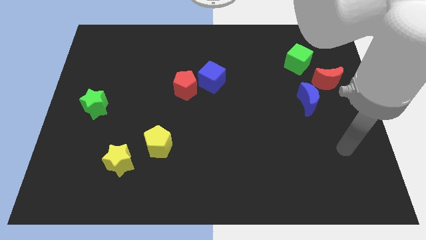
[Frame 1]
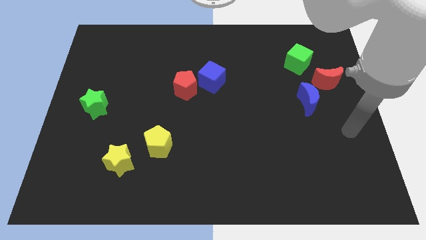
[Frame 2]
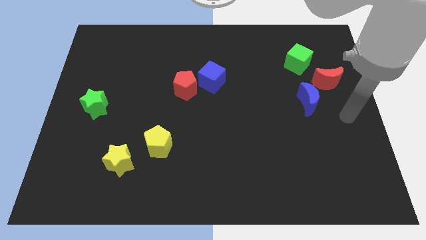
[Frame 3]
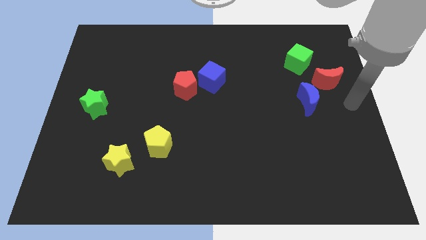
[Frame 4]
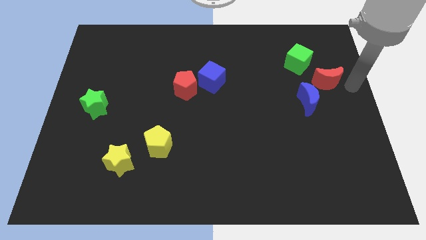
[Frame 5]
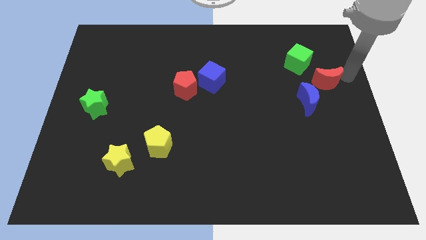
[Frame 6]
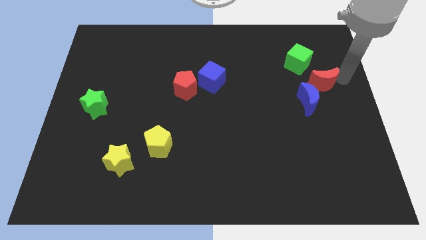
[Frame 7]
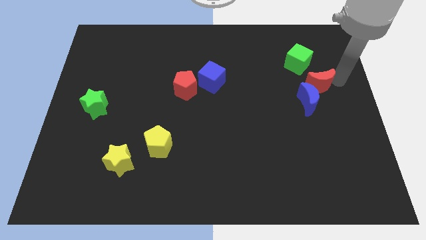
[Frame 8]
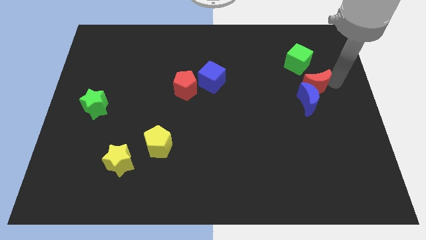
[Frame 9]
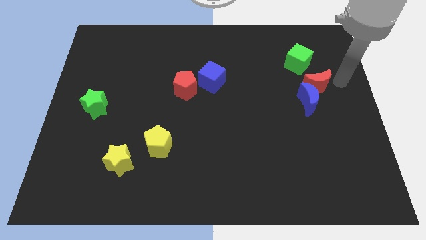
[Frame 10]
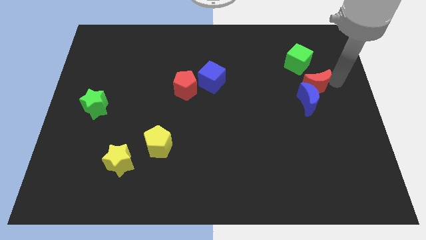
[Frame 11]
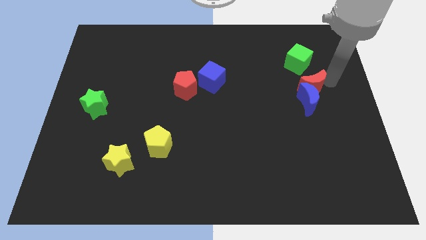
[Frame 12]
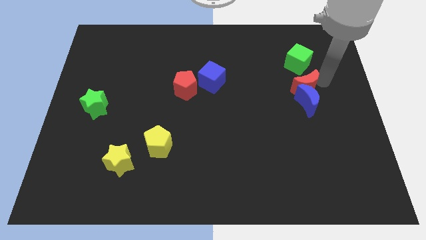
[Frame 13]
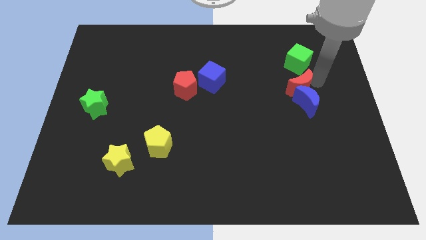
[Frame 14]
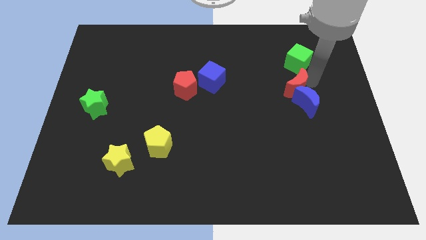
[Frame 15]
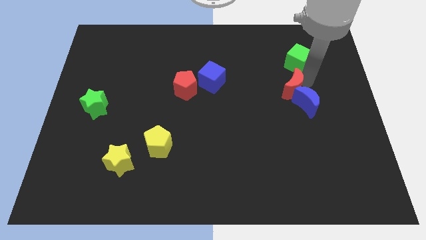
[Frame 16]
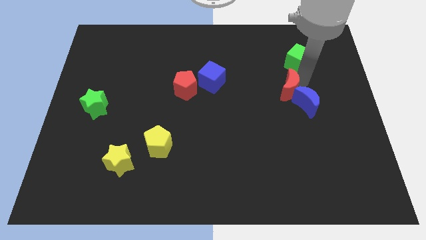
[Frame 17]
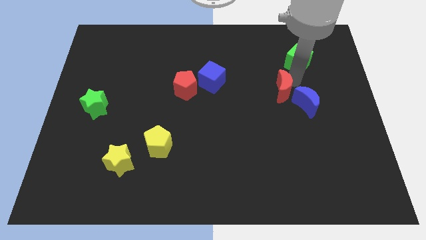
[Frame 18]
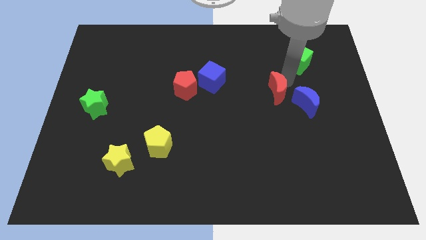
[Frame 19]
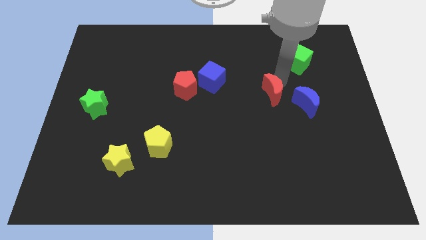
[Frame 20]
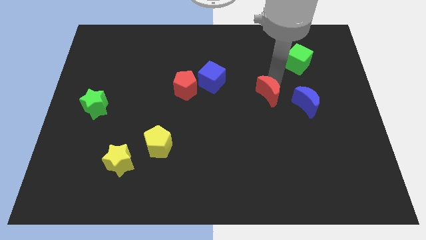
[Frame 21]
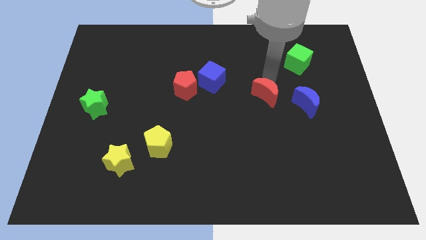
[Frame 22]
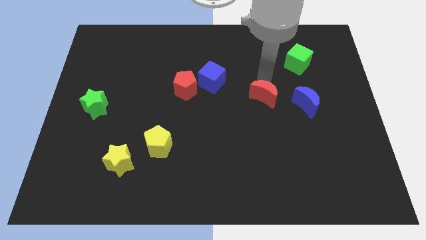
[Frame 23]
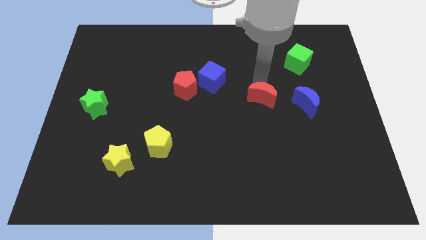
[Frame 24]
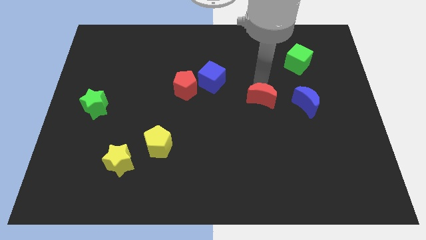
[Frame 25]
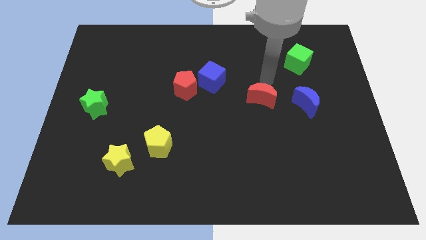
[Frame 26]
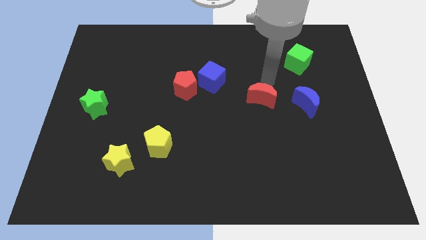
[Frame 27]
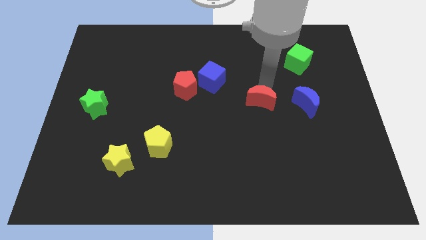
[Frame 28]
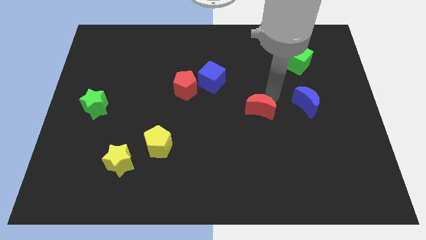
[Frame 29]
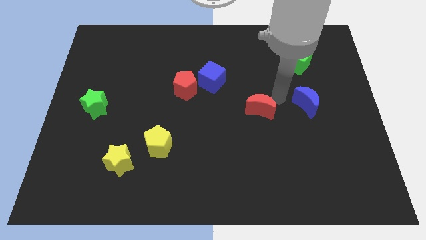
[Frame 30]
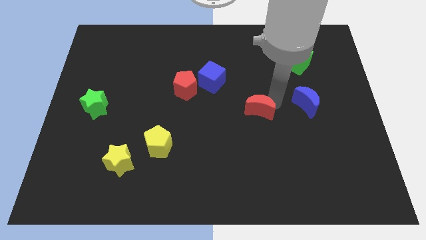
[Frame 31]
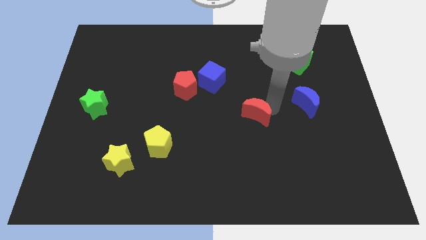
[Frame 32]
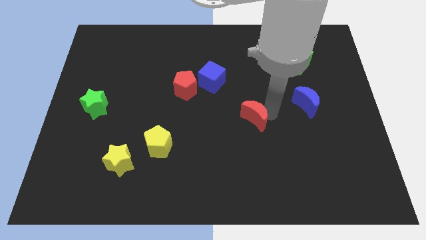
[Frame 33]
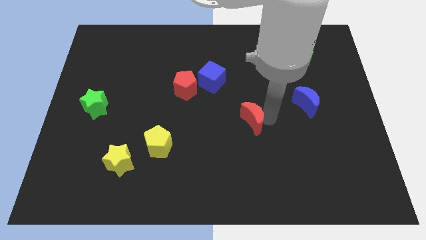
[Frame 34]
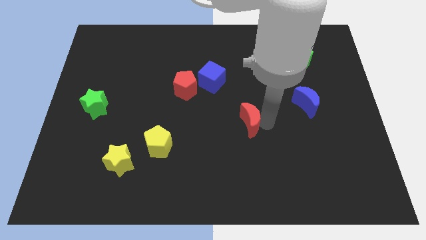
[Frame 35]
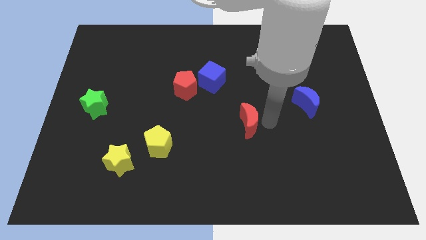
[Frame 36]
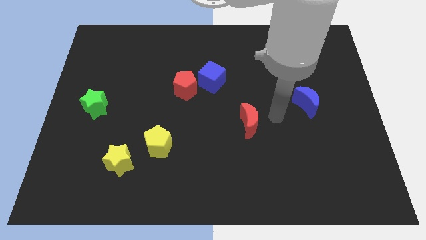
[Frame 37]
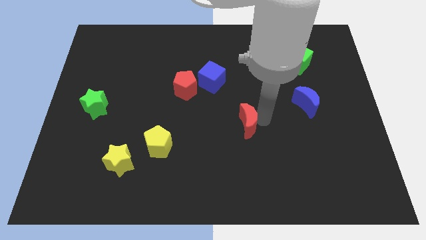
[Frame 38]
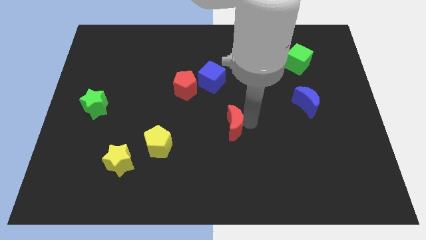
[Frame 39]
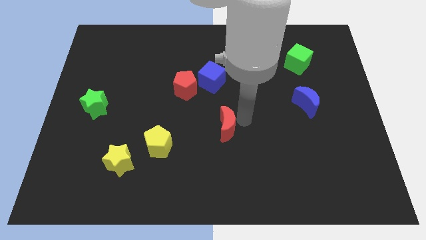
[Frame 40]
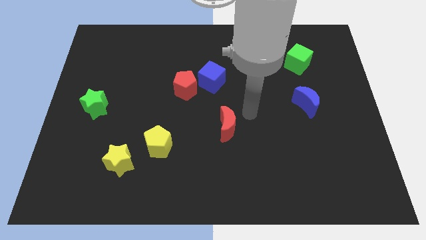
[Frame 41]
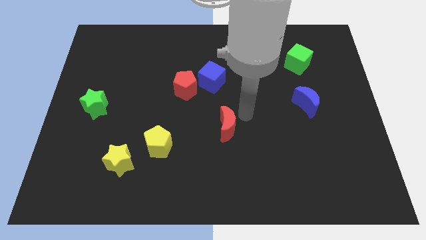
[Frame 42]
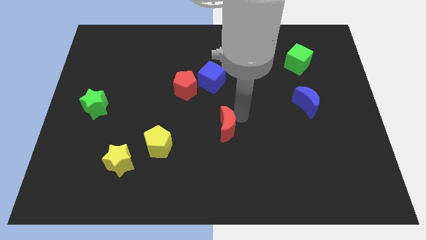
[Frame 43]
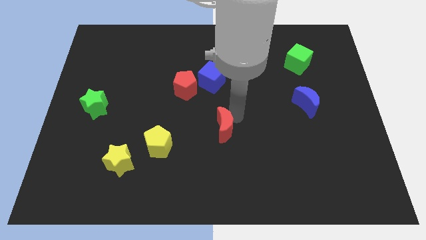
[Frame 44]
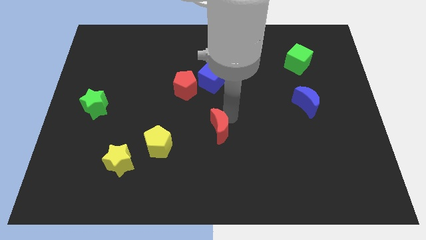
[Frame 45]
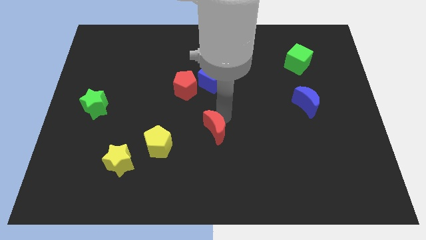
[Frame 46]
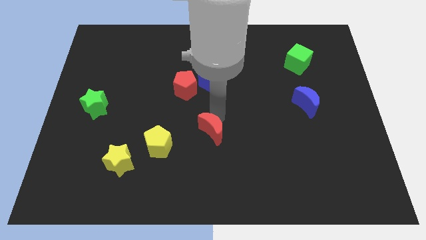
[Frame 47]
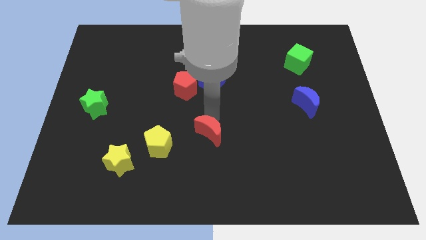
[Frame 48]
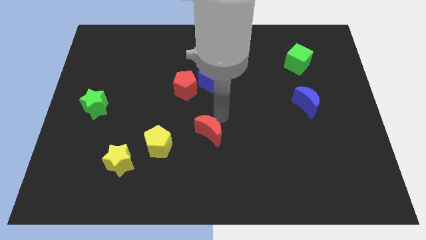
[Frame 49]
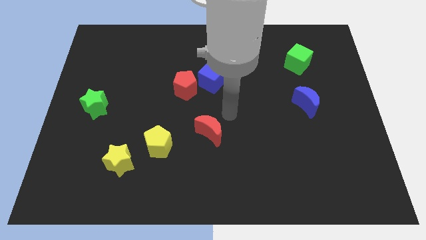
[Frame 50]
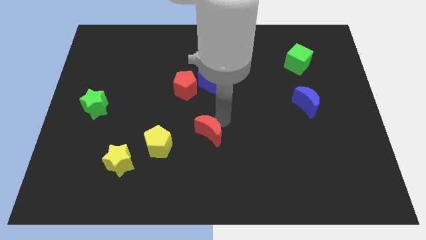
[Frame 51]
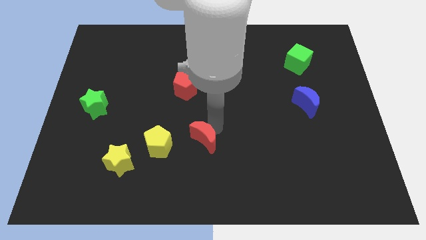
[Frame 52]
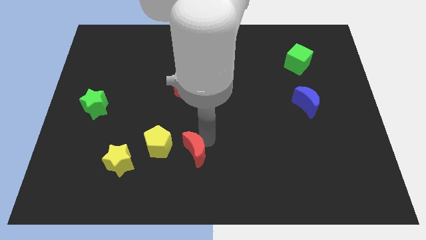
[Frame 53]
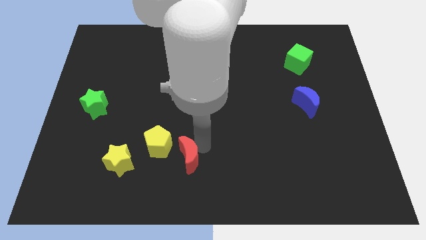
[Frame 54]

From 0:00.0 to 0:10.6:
slide the red moon to the right side of the yellow star

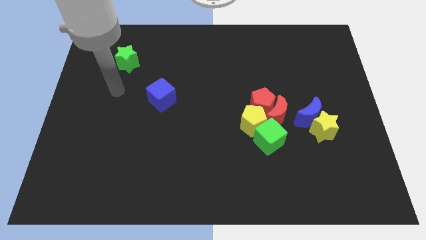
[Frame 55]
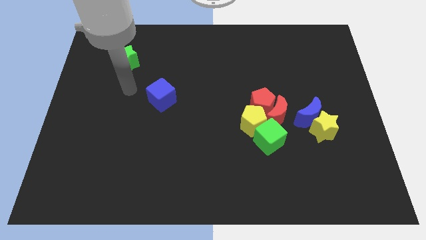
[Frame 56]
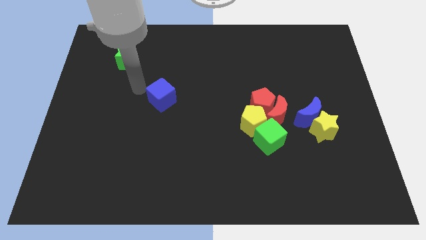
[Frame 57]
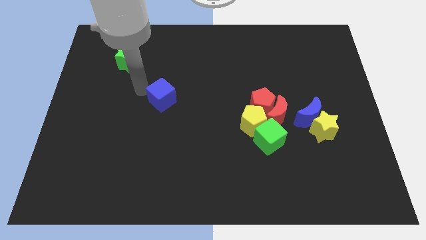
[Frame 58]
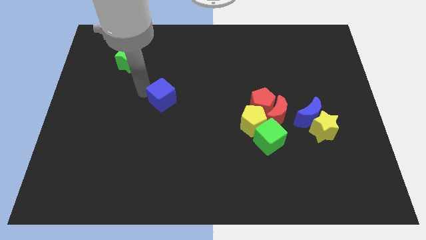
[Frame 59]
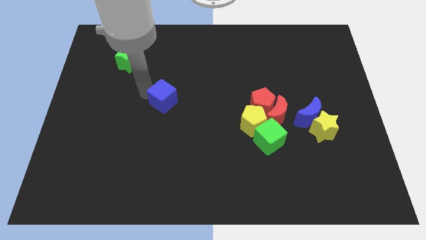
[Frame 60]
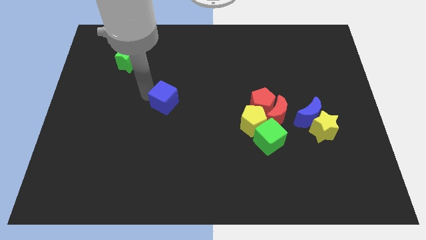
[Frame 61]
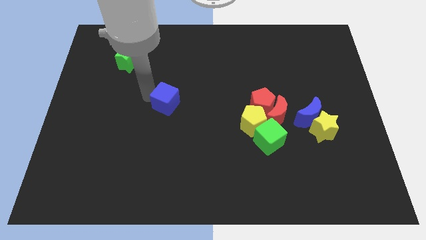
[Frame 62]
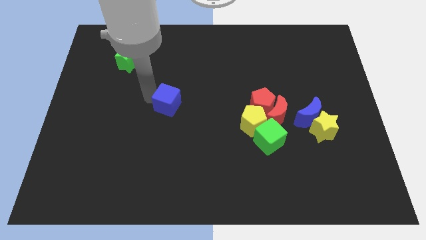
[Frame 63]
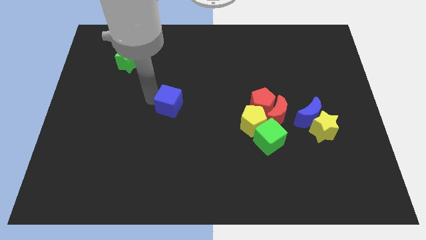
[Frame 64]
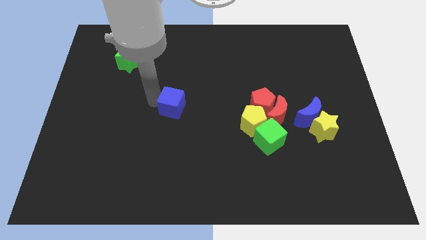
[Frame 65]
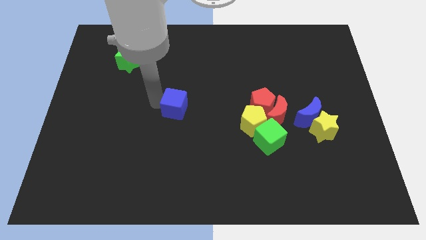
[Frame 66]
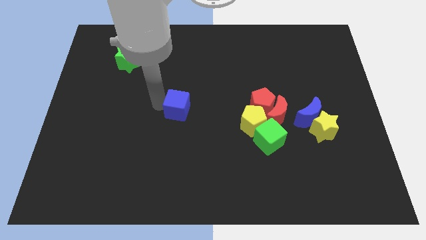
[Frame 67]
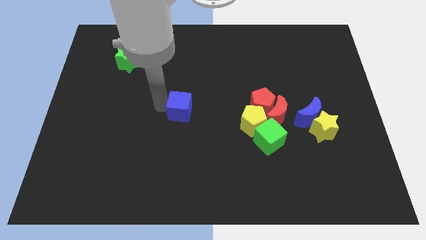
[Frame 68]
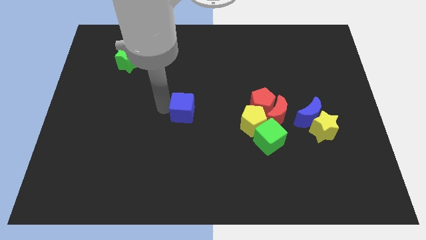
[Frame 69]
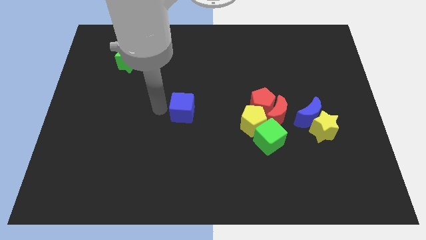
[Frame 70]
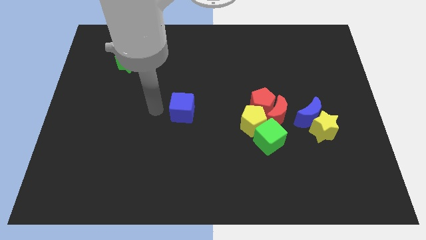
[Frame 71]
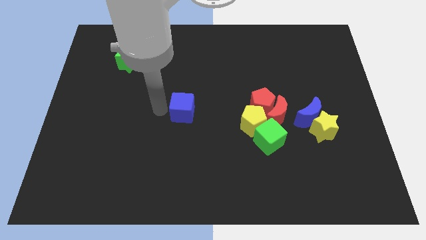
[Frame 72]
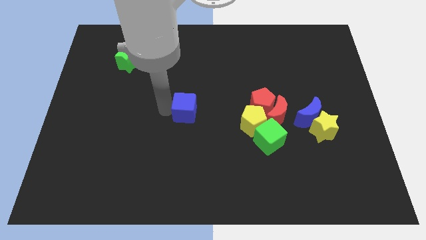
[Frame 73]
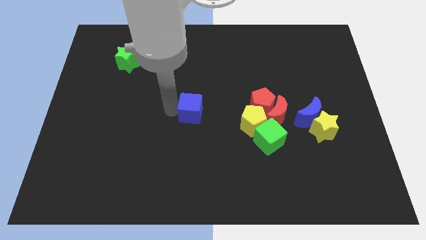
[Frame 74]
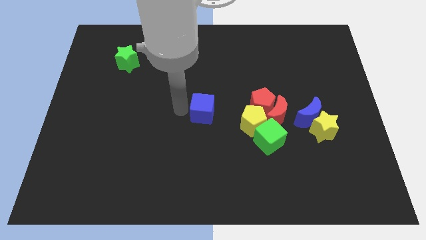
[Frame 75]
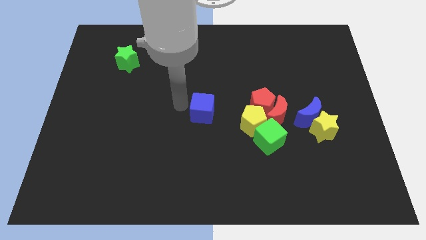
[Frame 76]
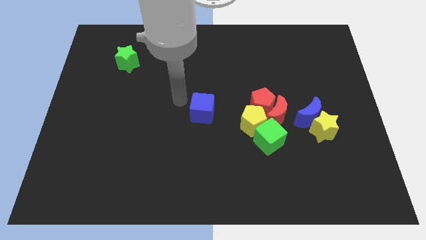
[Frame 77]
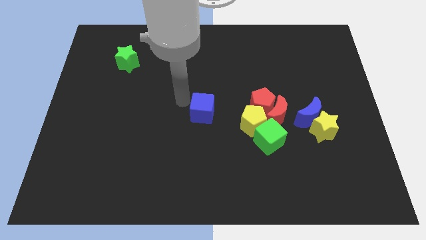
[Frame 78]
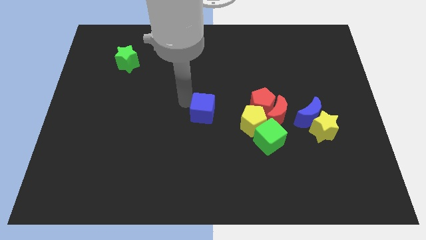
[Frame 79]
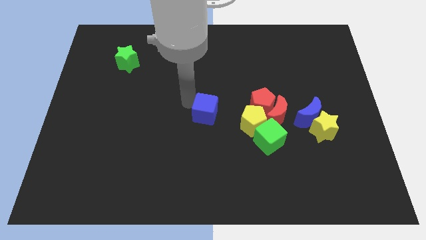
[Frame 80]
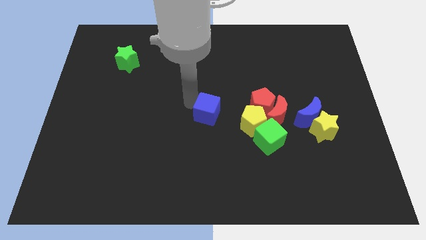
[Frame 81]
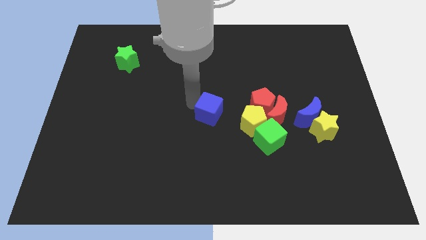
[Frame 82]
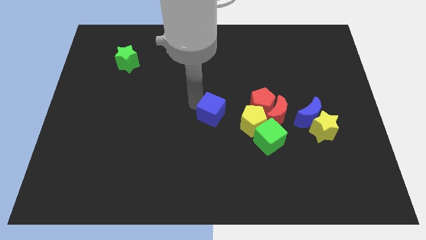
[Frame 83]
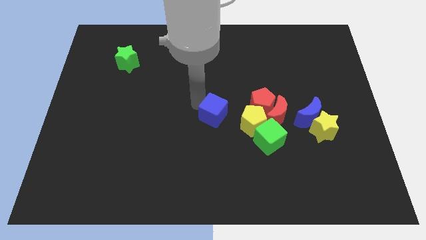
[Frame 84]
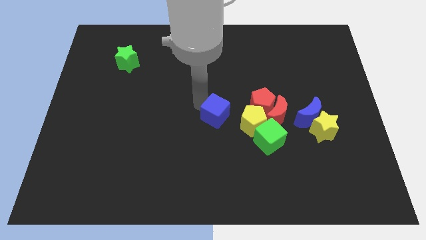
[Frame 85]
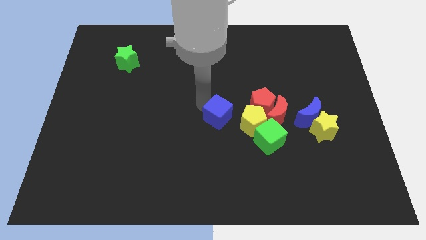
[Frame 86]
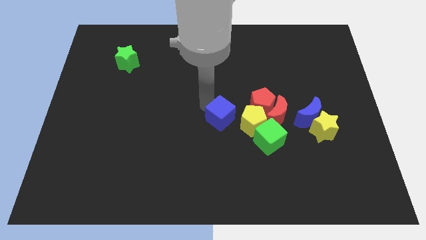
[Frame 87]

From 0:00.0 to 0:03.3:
put the blue cube diagonally up and to the left of the green cube
